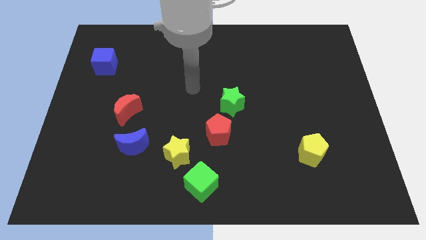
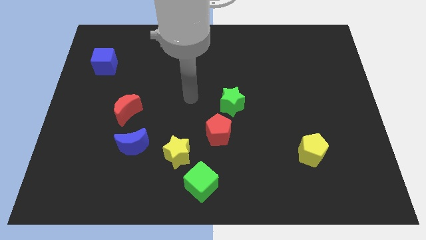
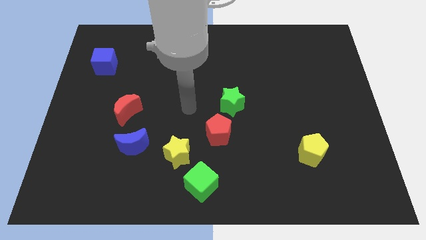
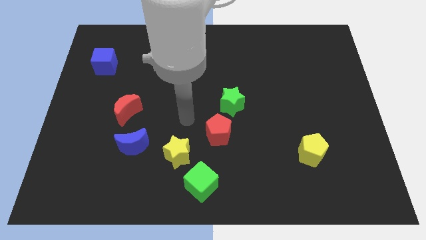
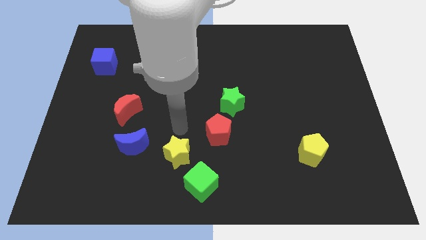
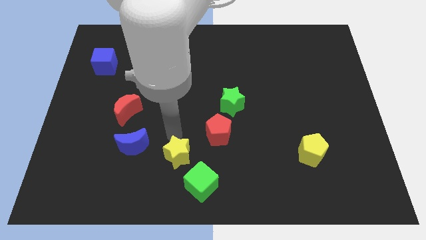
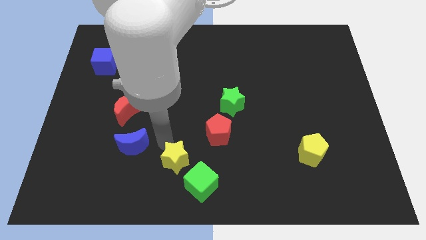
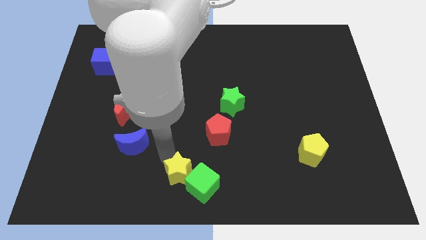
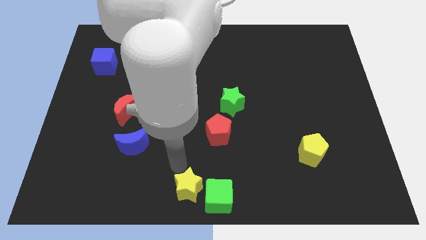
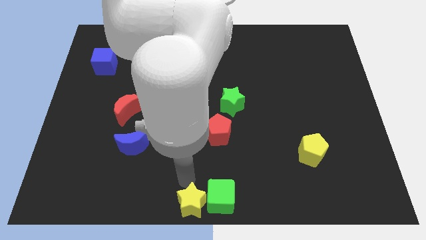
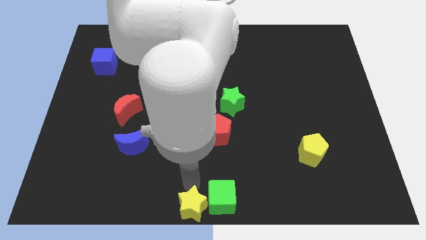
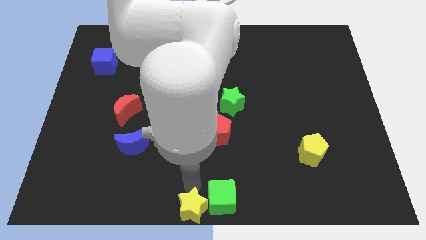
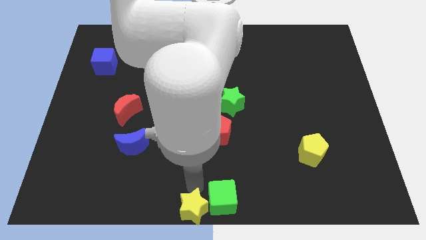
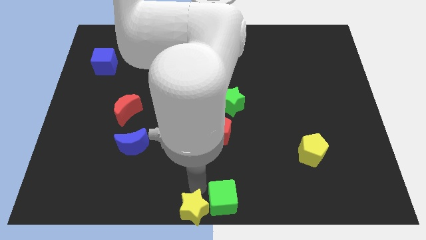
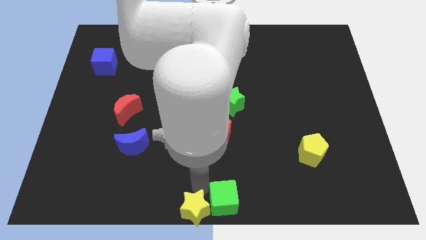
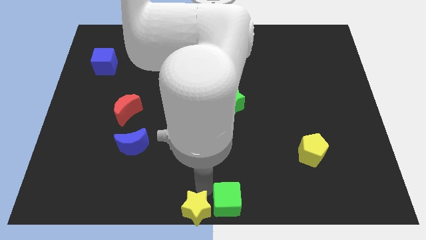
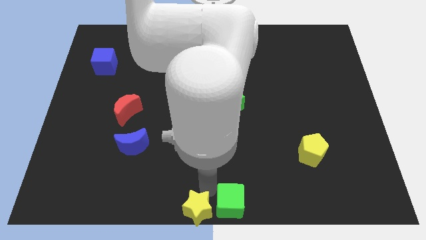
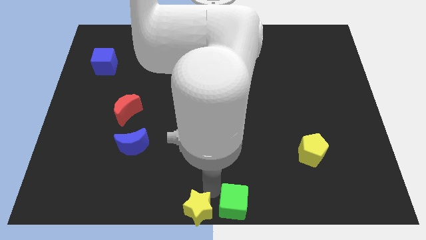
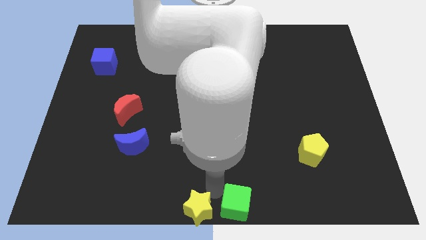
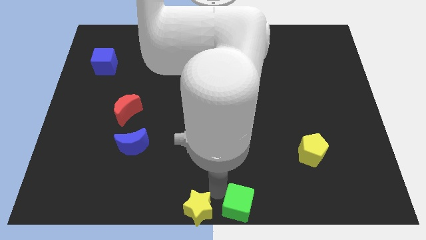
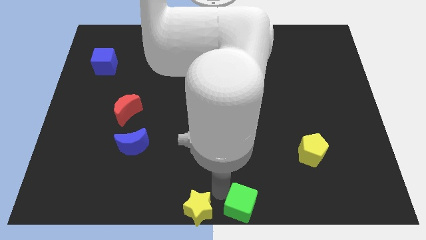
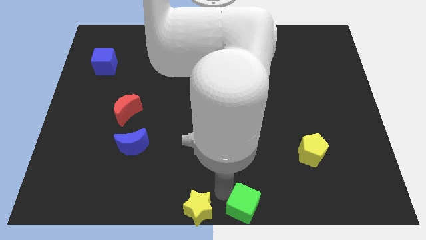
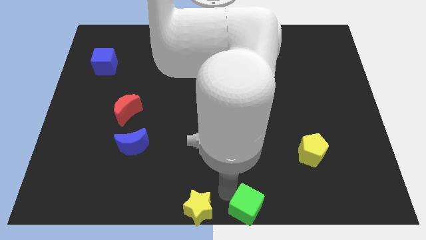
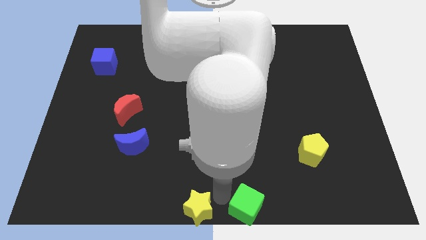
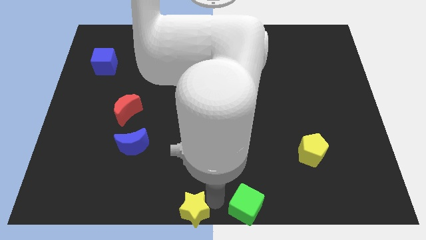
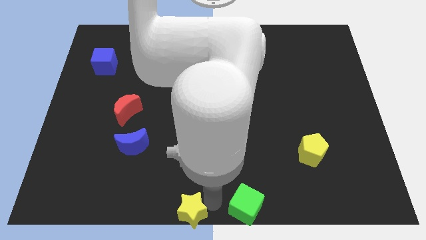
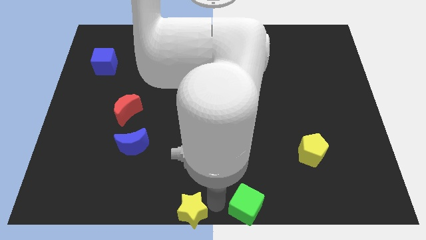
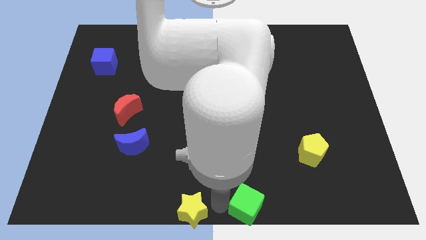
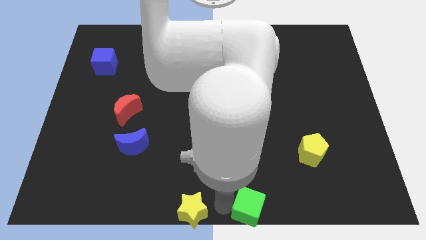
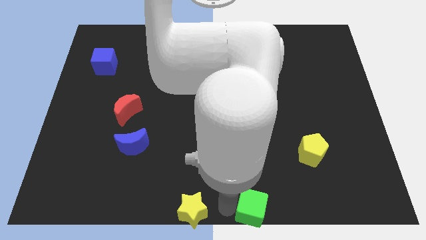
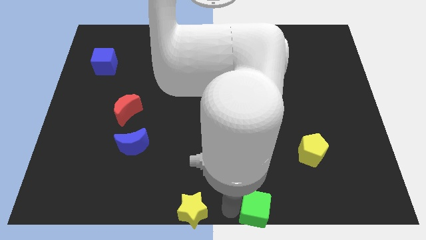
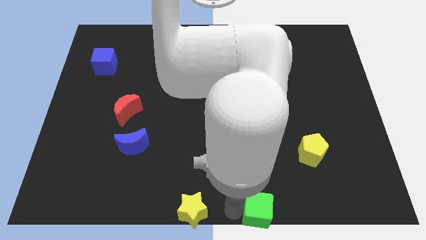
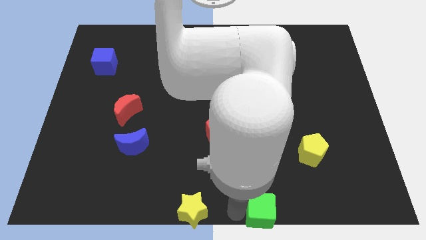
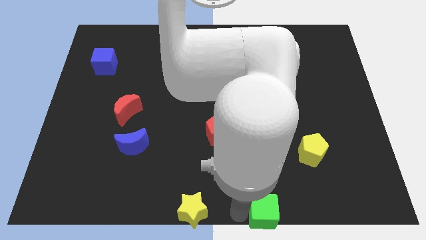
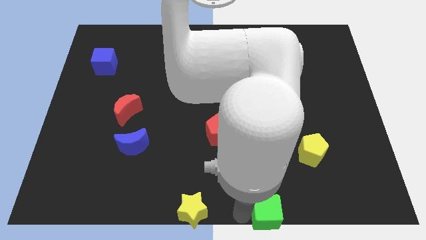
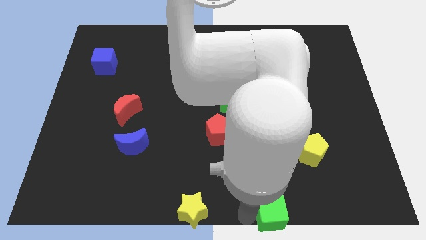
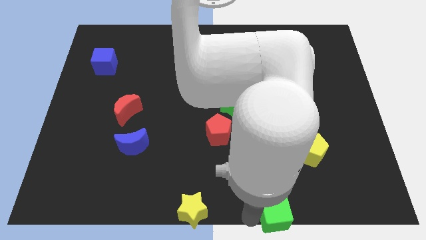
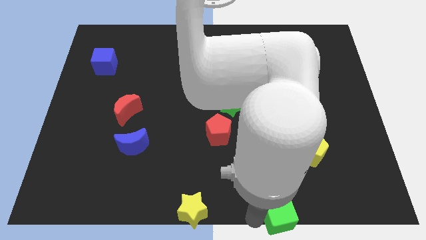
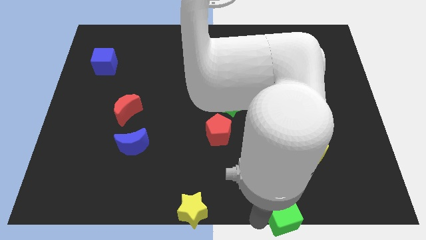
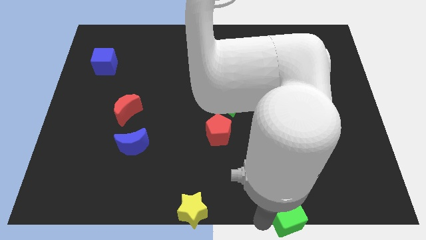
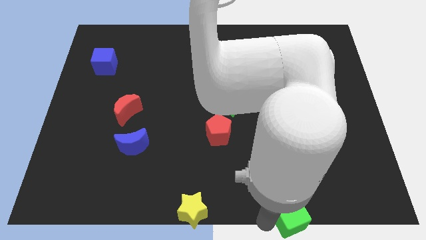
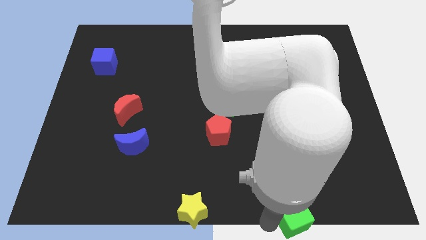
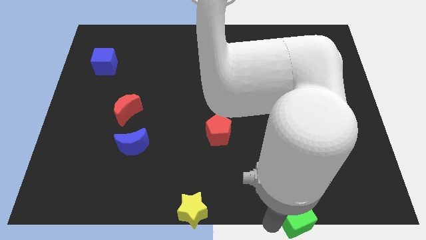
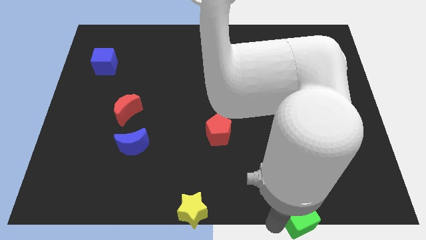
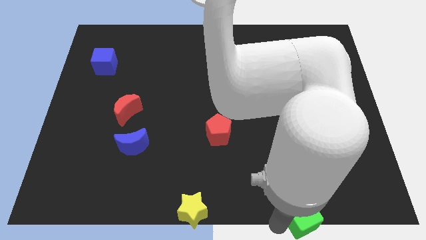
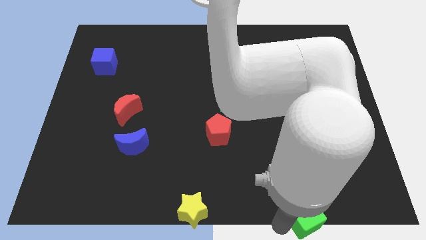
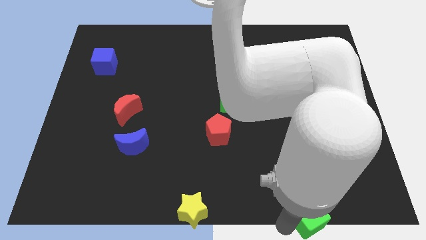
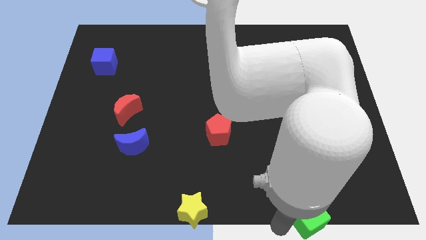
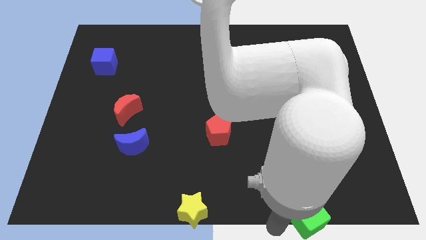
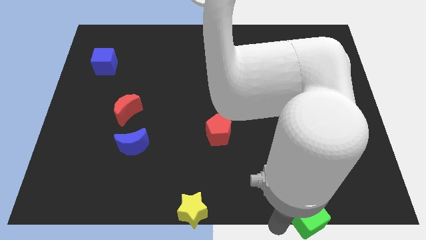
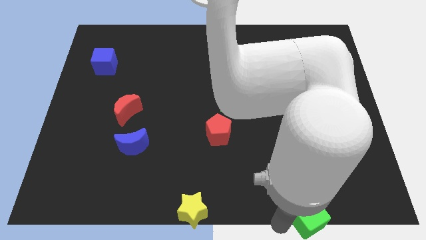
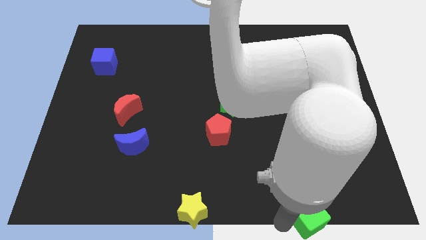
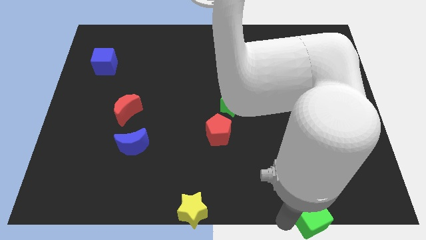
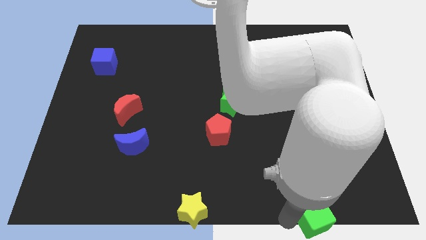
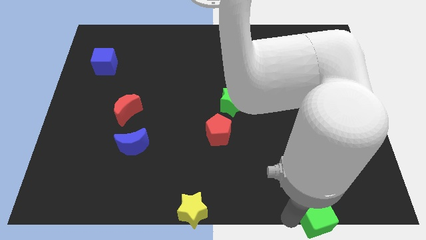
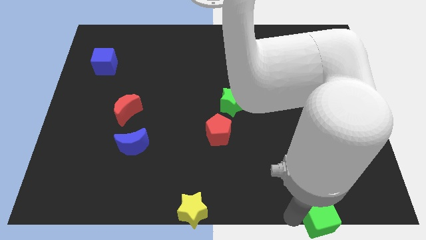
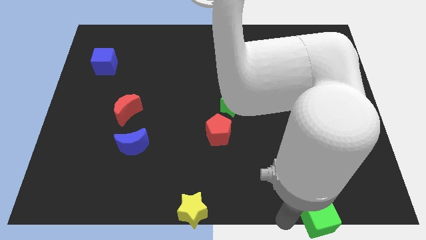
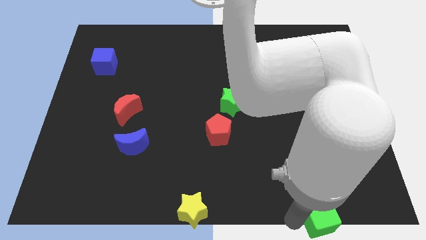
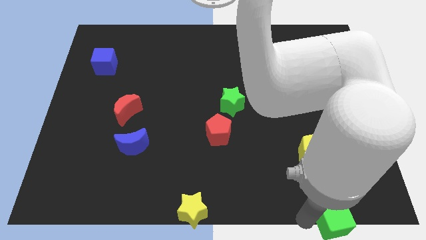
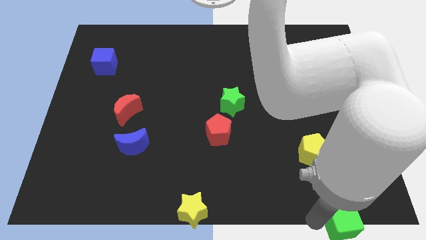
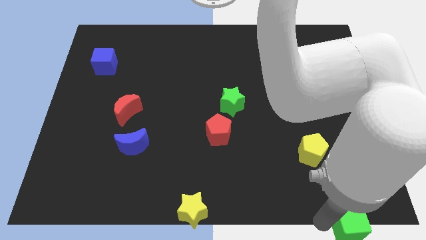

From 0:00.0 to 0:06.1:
slide the green cube to the bottom right of the board

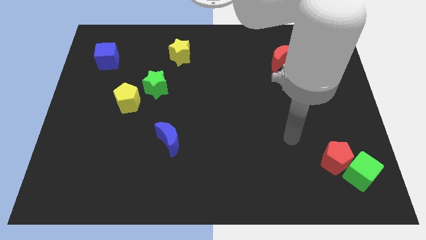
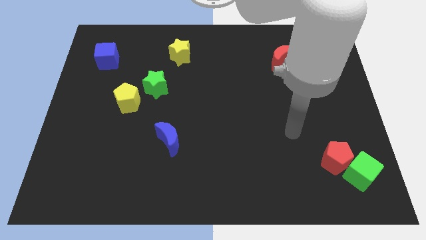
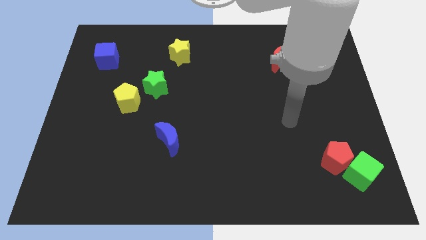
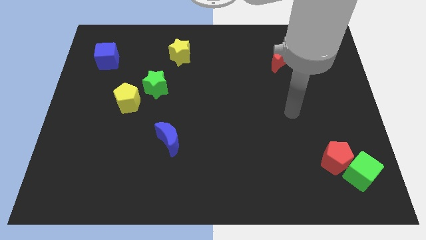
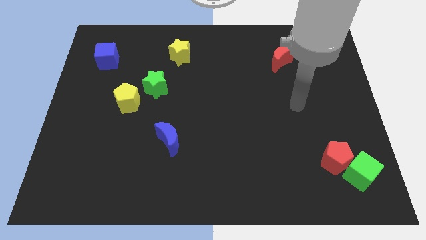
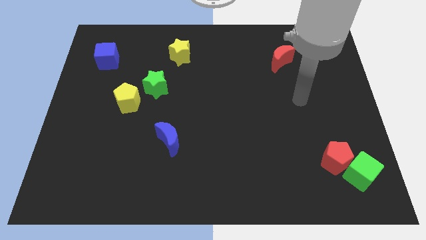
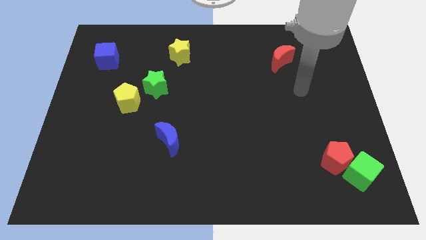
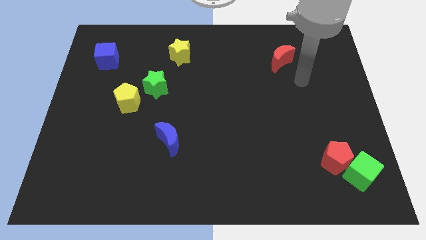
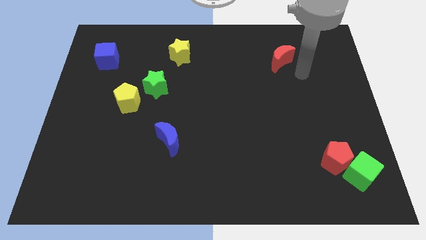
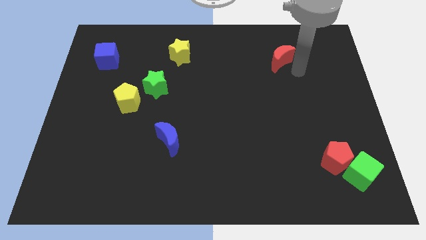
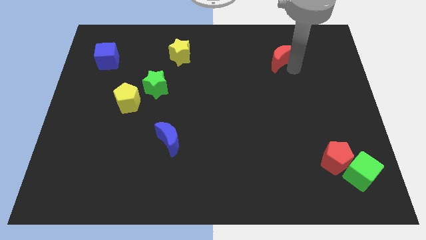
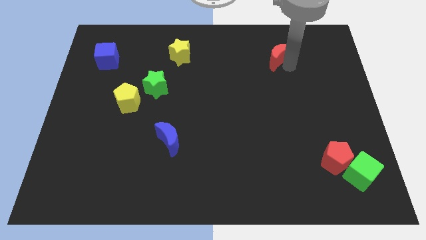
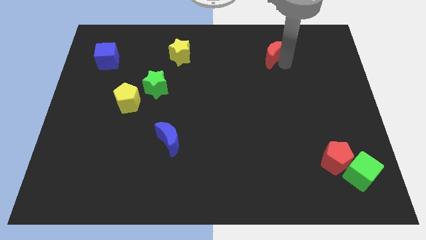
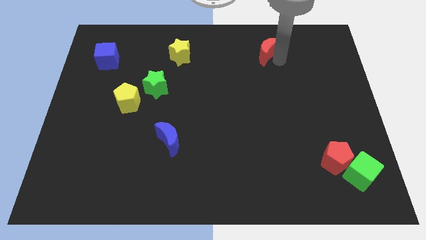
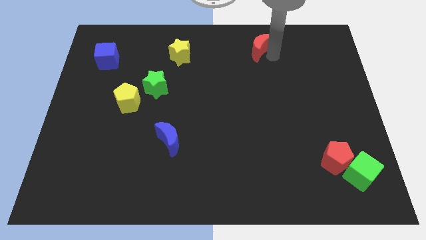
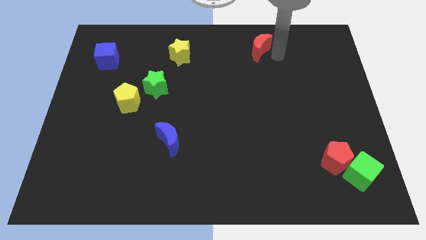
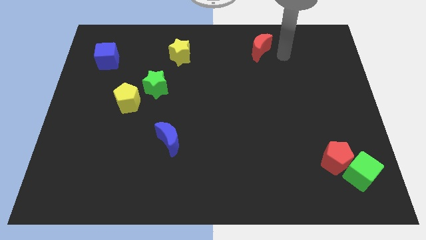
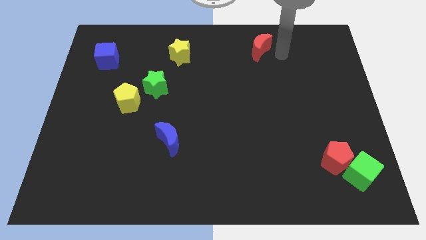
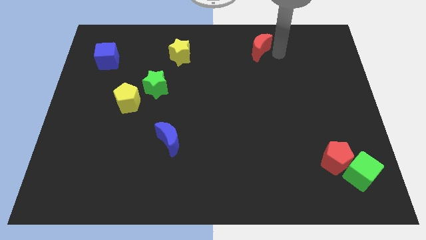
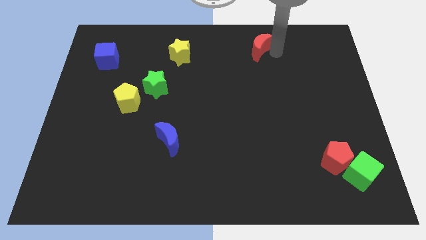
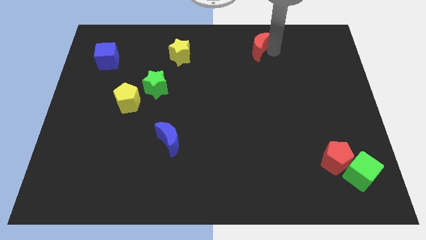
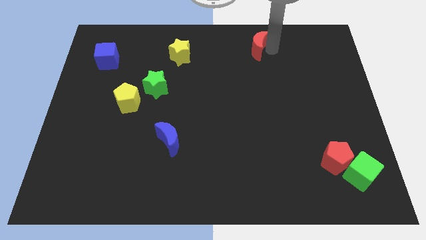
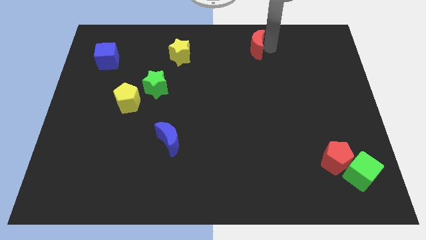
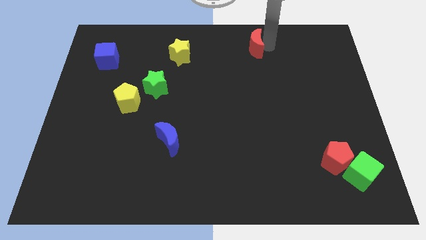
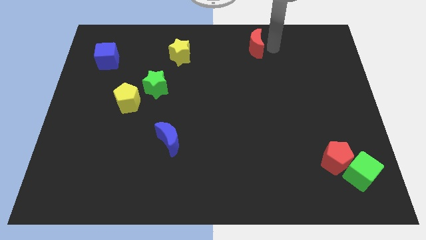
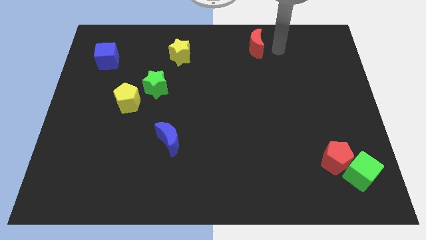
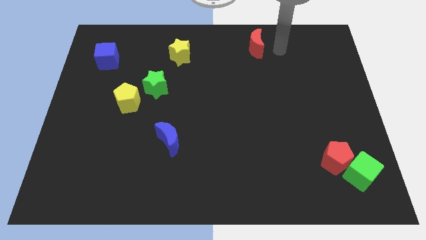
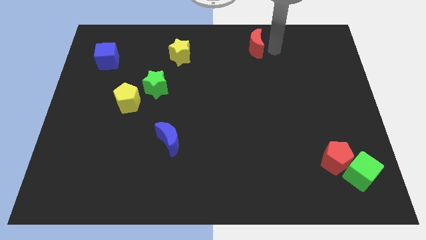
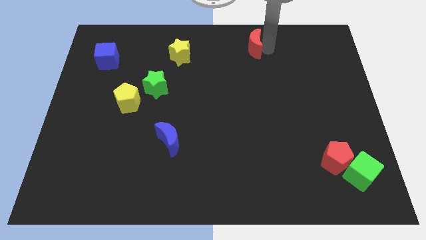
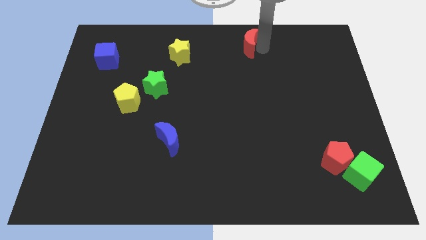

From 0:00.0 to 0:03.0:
slide the red moon to the top side
